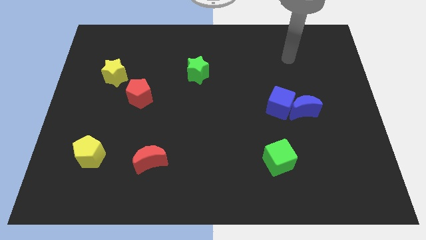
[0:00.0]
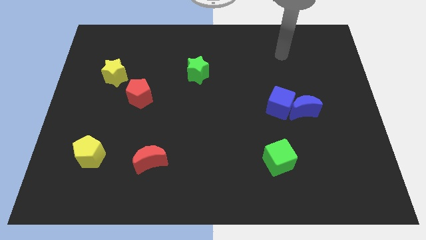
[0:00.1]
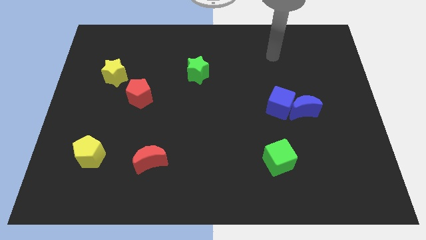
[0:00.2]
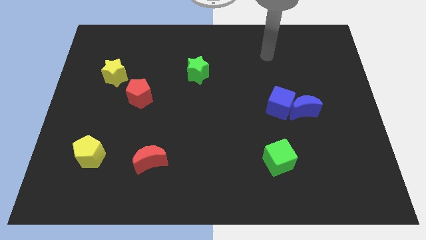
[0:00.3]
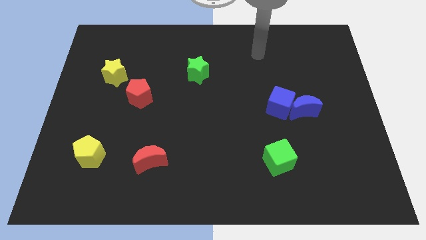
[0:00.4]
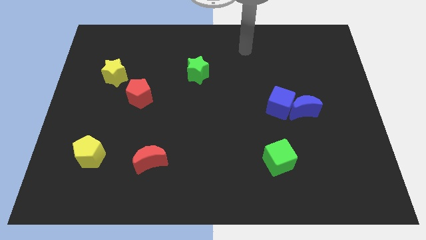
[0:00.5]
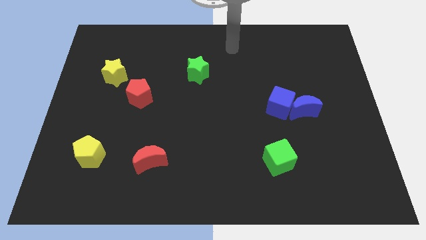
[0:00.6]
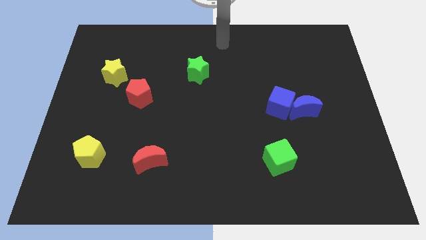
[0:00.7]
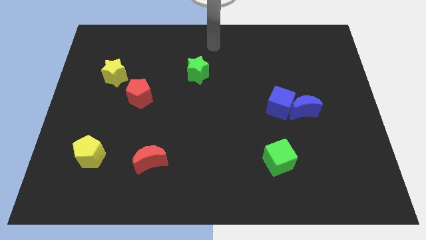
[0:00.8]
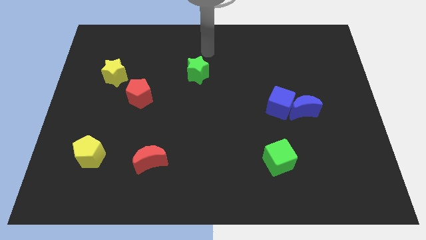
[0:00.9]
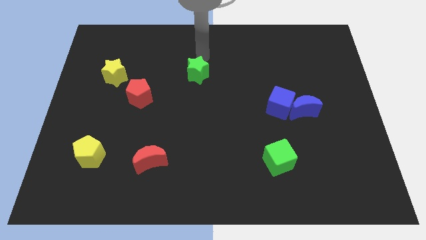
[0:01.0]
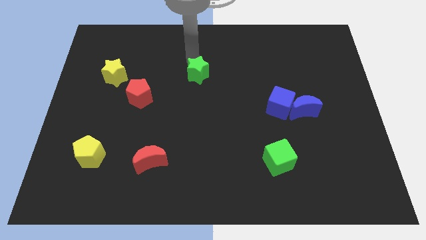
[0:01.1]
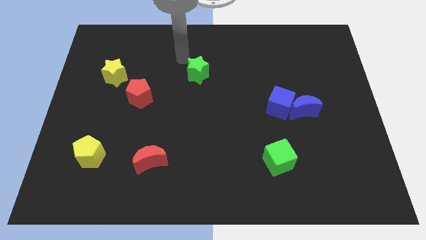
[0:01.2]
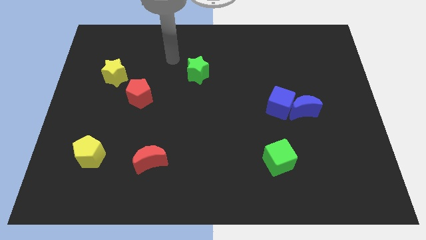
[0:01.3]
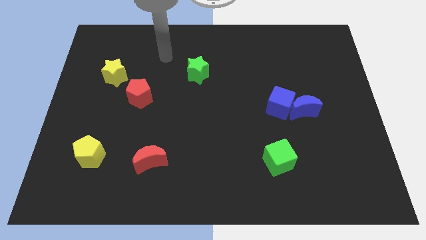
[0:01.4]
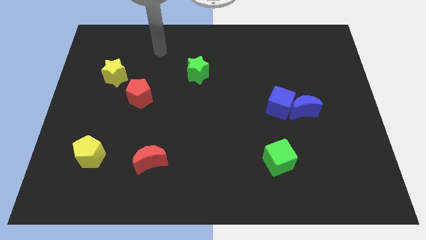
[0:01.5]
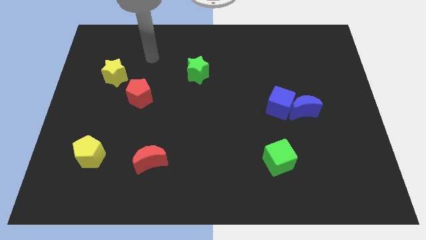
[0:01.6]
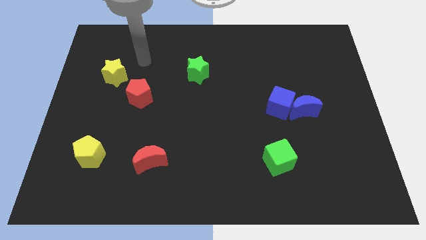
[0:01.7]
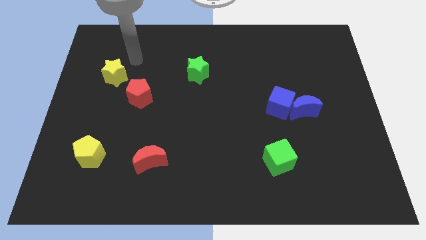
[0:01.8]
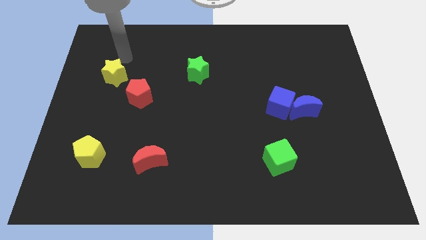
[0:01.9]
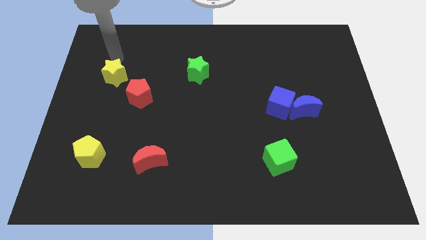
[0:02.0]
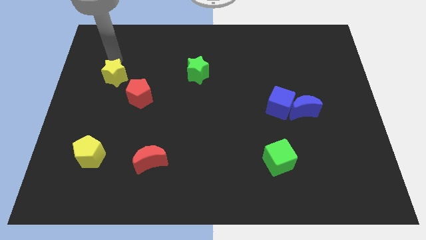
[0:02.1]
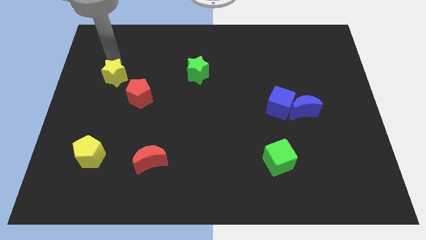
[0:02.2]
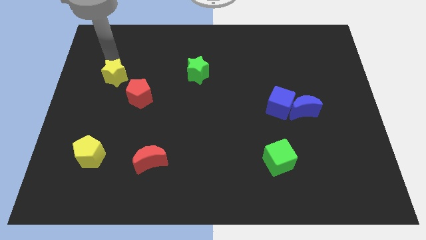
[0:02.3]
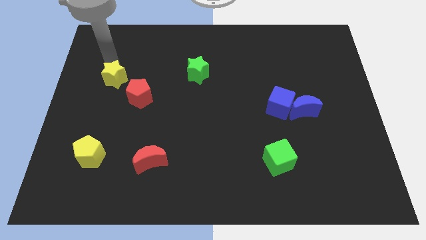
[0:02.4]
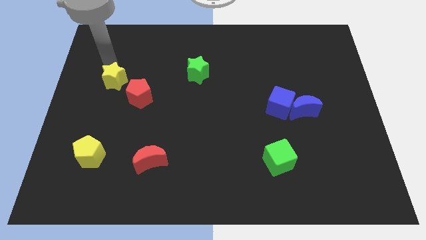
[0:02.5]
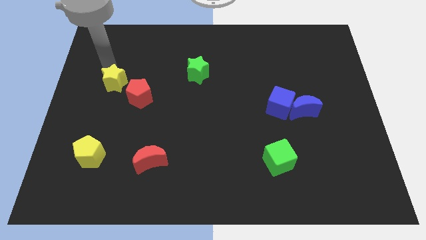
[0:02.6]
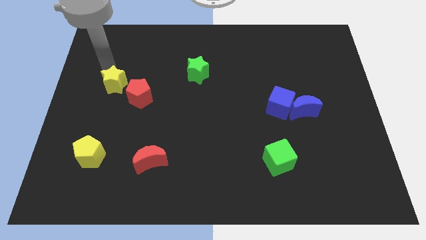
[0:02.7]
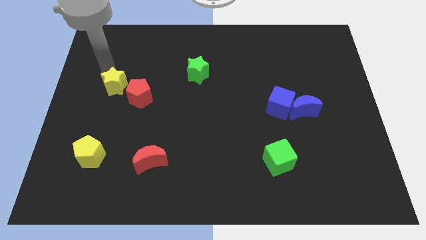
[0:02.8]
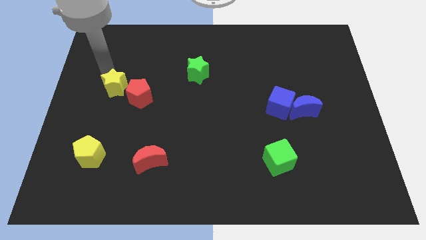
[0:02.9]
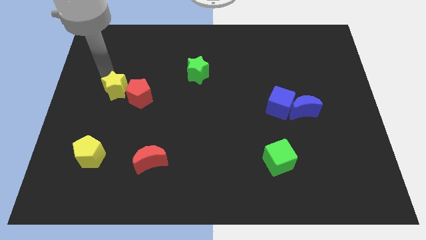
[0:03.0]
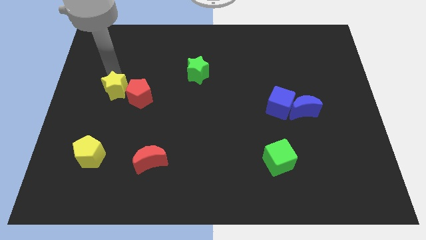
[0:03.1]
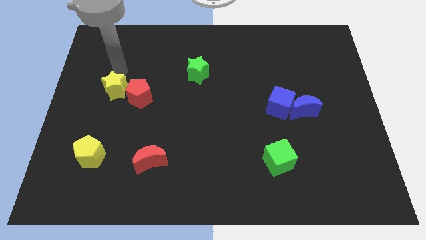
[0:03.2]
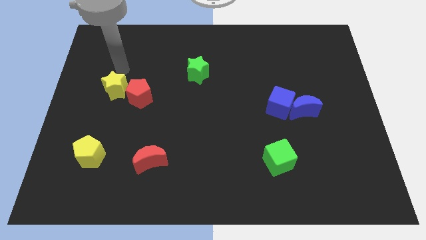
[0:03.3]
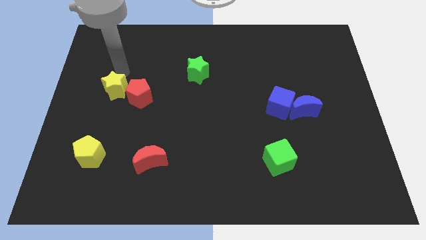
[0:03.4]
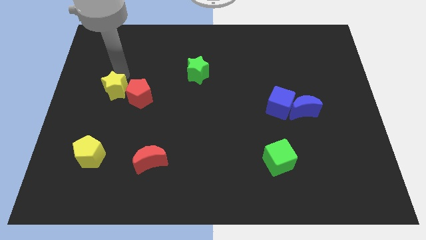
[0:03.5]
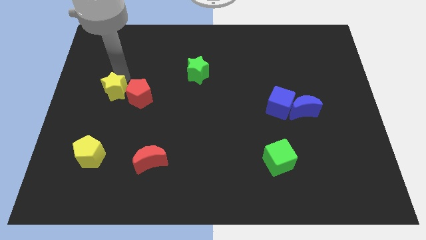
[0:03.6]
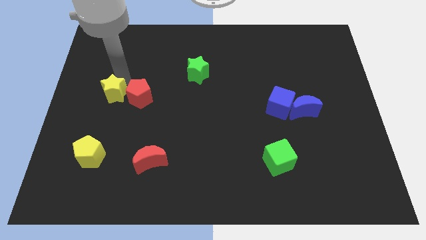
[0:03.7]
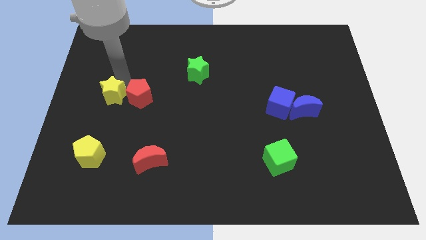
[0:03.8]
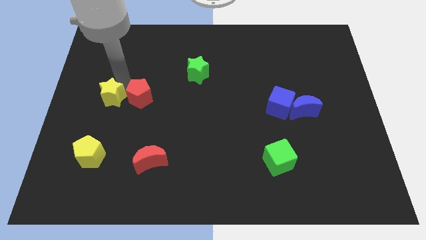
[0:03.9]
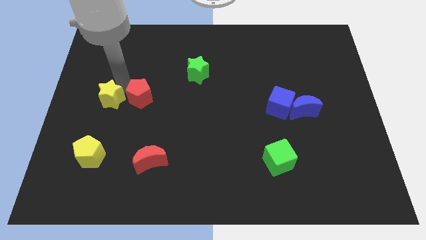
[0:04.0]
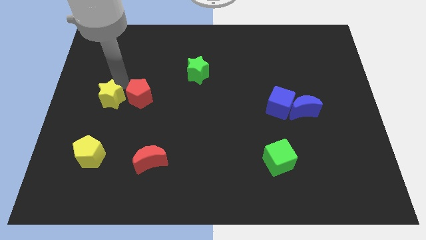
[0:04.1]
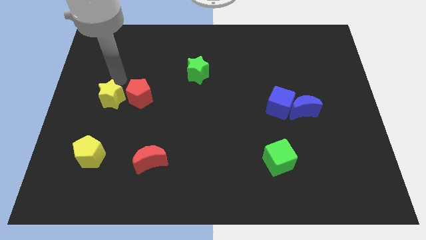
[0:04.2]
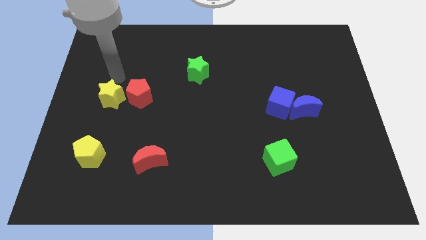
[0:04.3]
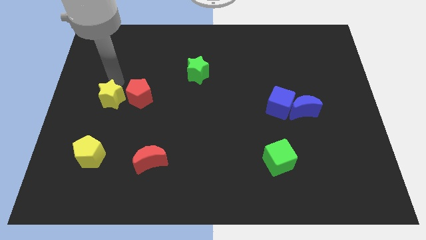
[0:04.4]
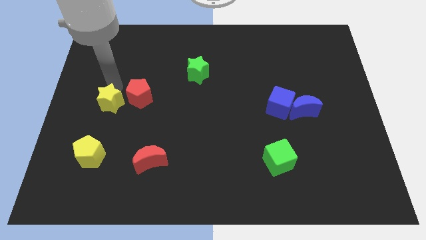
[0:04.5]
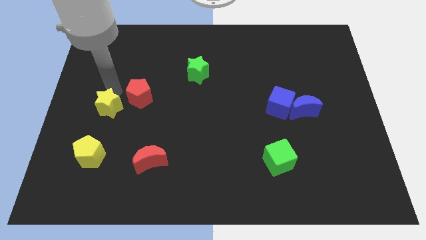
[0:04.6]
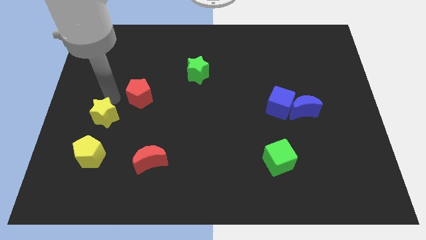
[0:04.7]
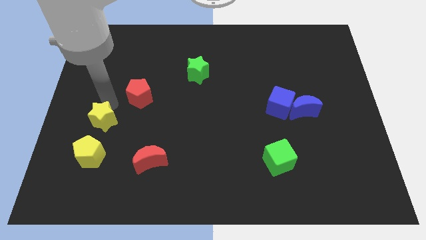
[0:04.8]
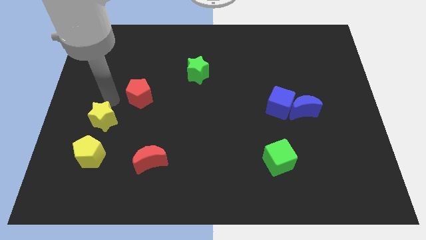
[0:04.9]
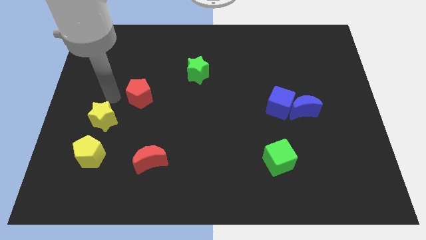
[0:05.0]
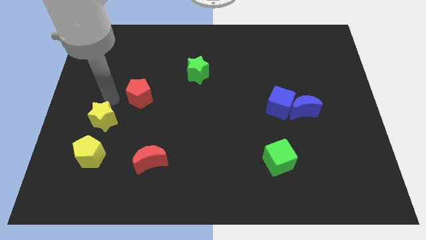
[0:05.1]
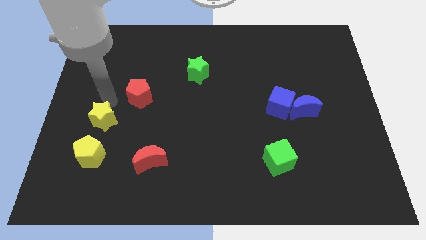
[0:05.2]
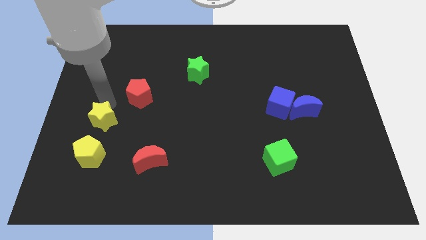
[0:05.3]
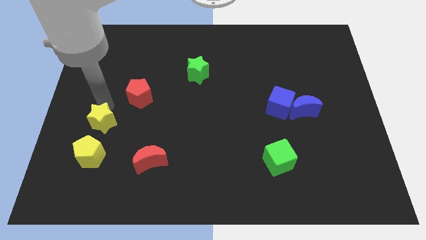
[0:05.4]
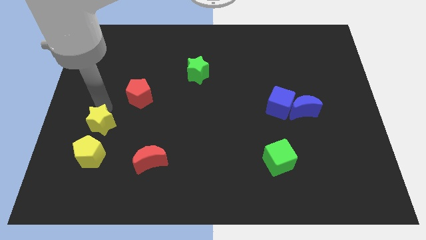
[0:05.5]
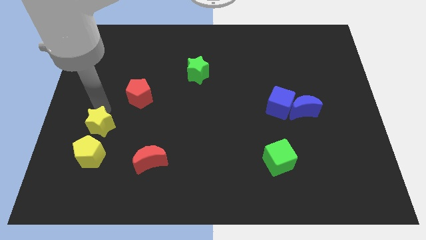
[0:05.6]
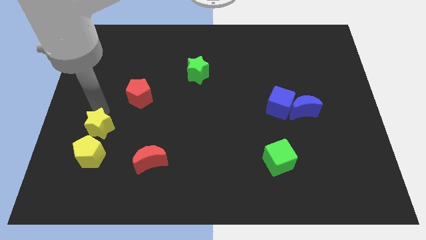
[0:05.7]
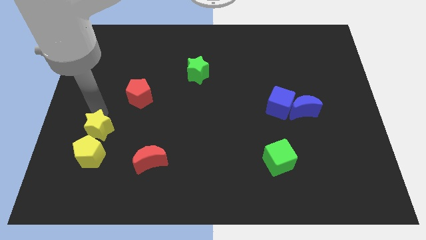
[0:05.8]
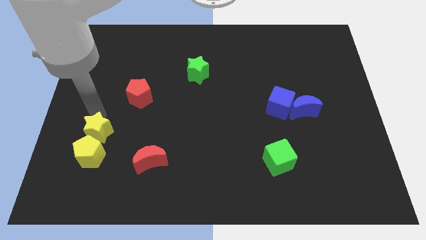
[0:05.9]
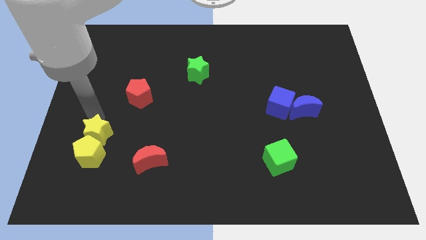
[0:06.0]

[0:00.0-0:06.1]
push the yellow star next to the yellow pentagon

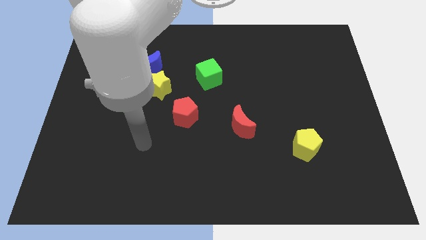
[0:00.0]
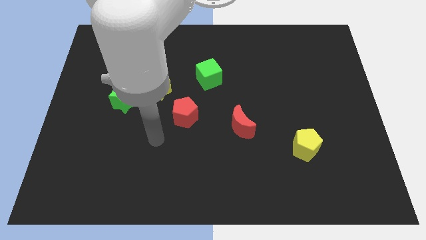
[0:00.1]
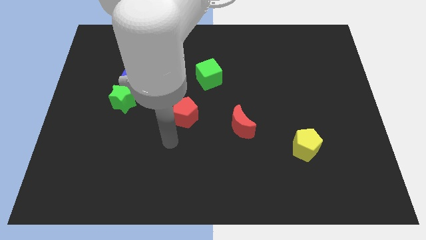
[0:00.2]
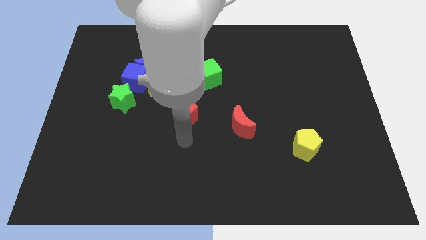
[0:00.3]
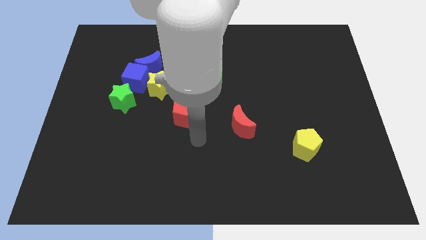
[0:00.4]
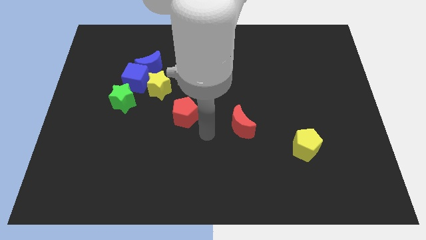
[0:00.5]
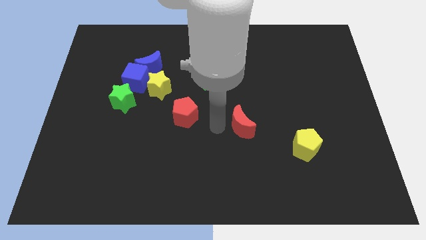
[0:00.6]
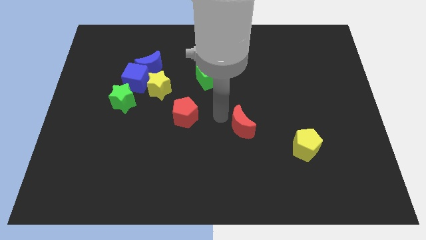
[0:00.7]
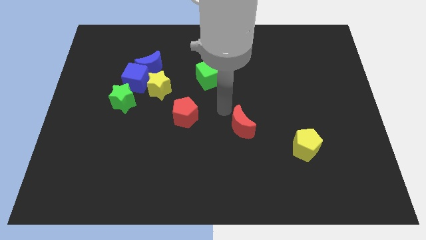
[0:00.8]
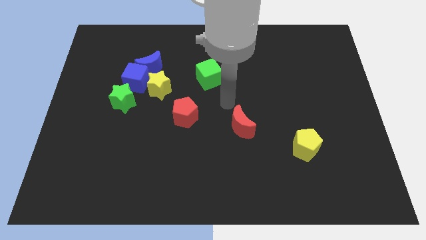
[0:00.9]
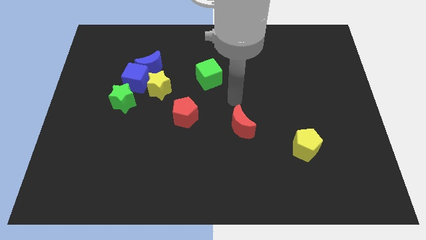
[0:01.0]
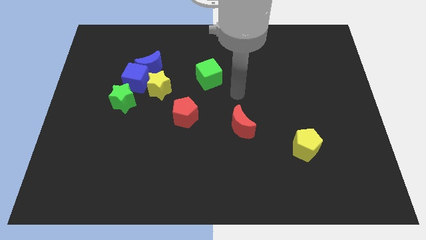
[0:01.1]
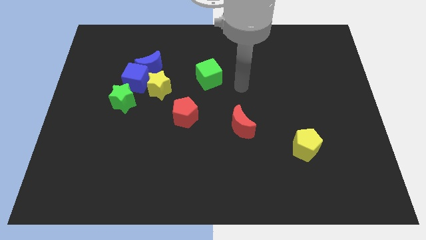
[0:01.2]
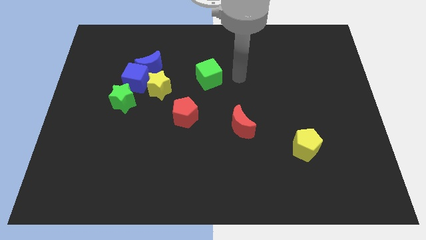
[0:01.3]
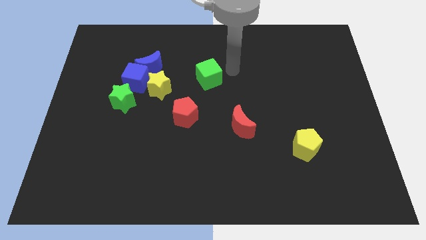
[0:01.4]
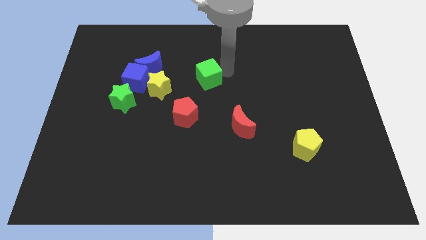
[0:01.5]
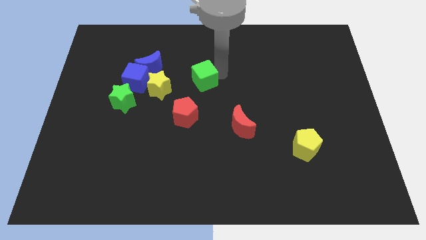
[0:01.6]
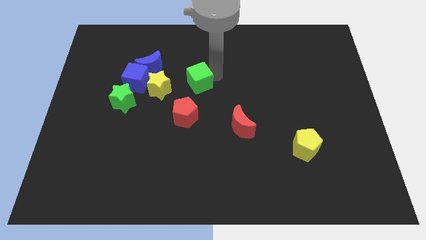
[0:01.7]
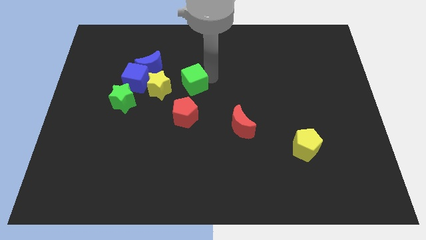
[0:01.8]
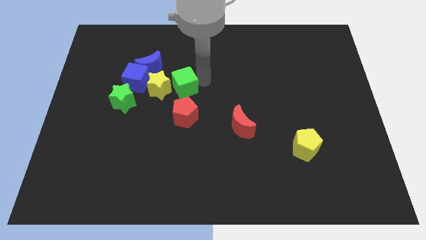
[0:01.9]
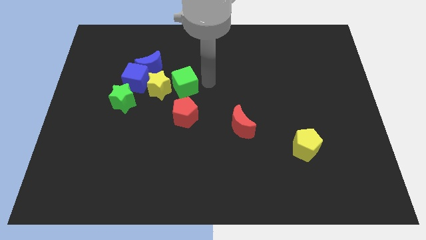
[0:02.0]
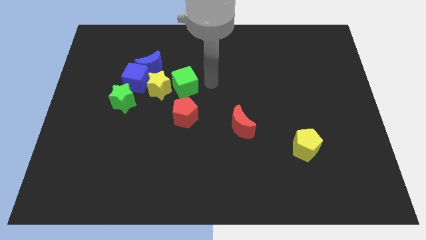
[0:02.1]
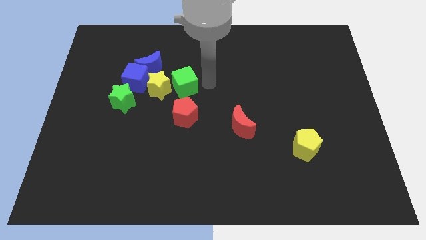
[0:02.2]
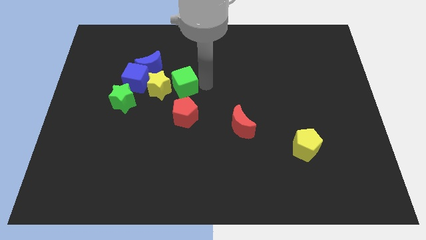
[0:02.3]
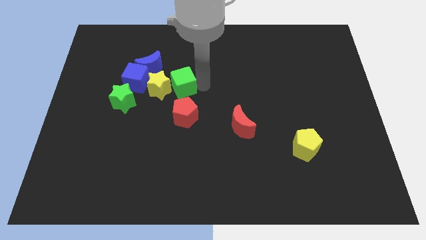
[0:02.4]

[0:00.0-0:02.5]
slide the green cube towards the yellow star
